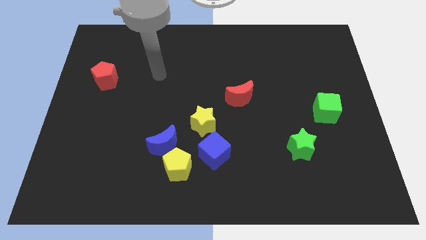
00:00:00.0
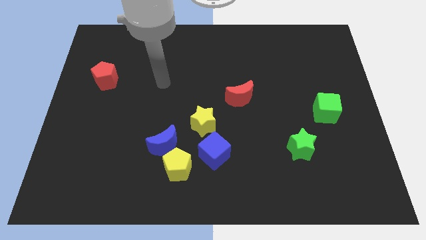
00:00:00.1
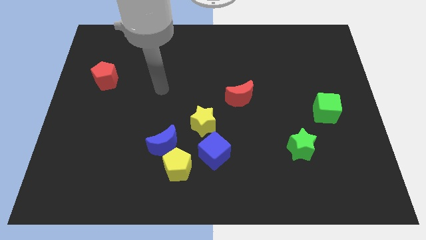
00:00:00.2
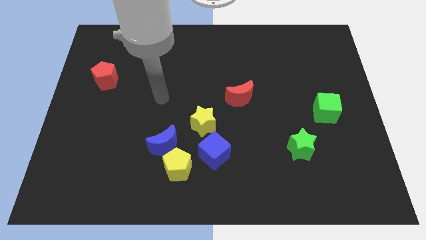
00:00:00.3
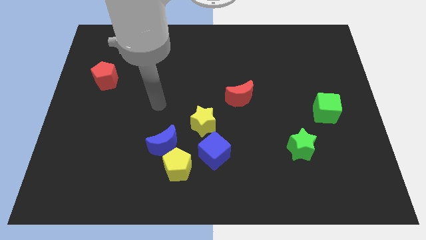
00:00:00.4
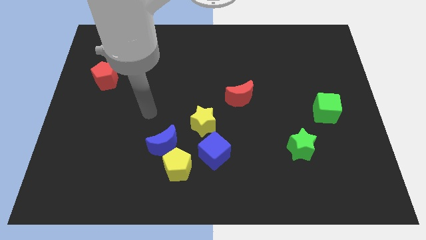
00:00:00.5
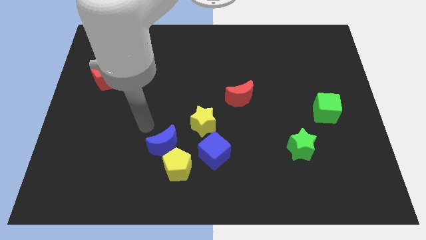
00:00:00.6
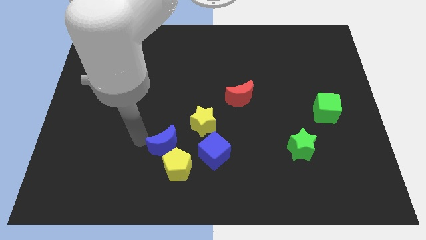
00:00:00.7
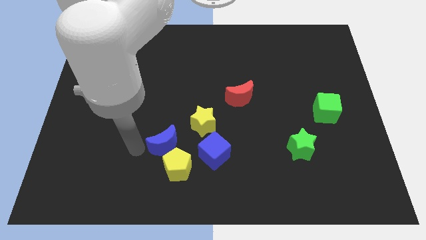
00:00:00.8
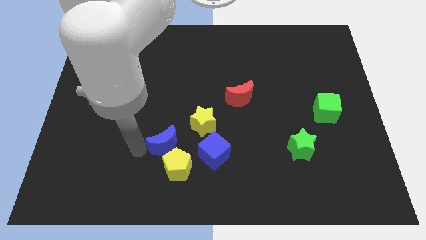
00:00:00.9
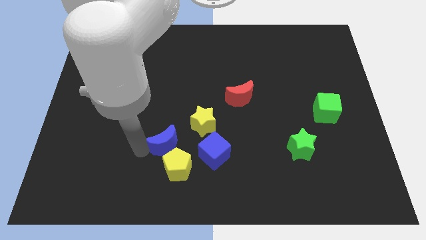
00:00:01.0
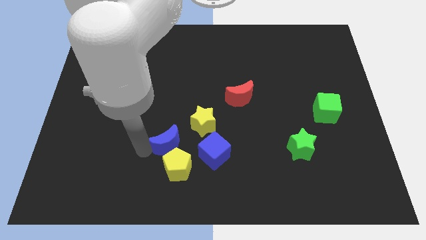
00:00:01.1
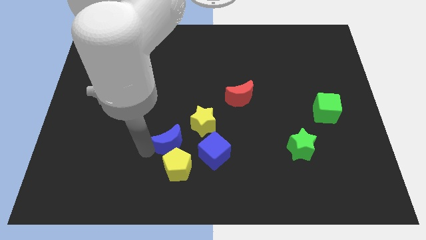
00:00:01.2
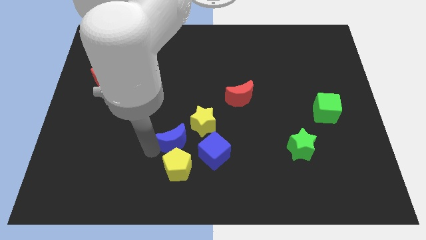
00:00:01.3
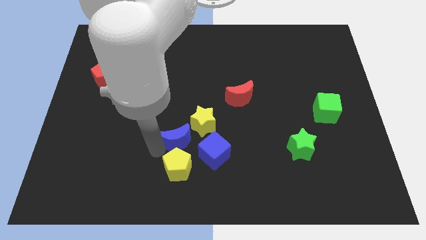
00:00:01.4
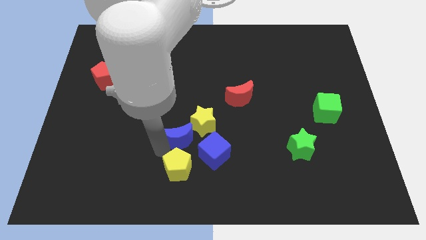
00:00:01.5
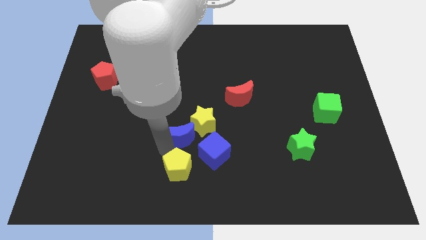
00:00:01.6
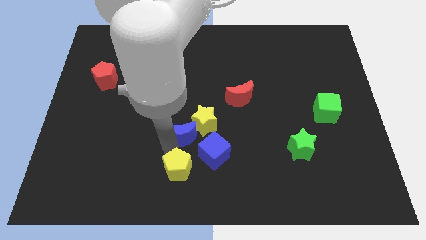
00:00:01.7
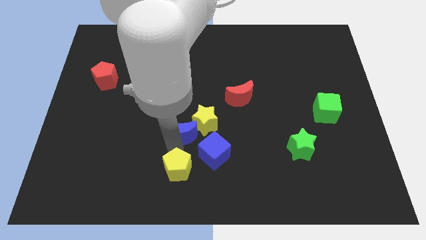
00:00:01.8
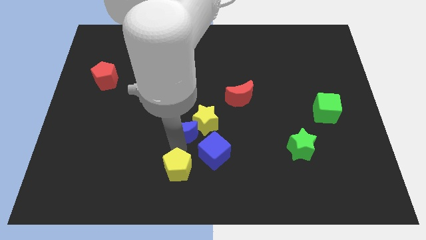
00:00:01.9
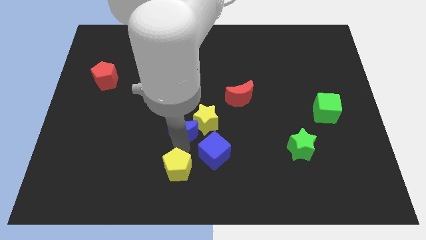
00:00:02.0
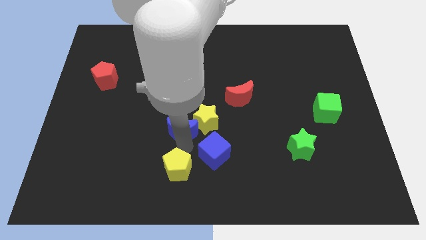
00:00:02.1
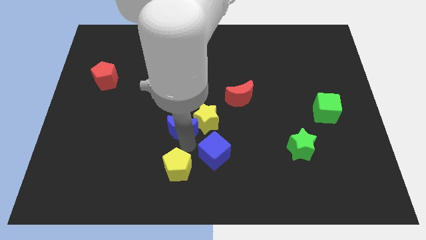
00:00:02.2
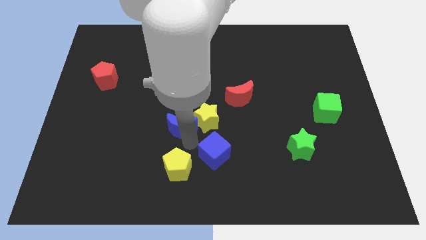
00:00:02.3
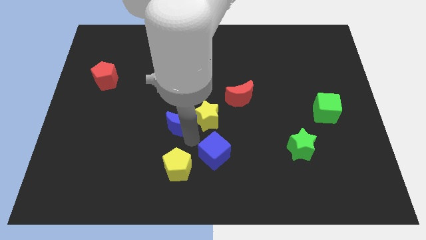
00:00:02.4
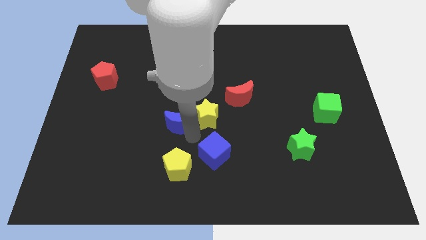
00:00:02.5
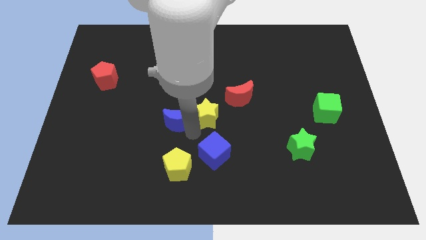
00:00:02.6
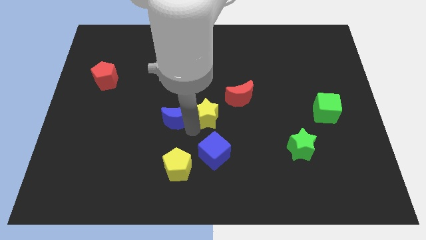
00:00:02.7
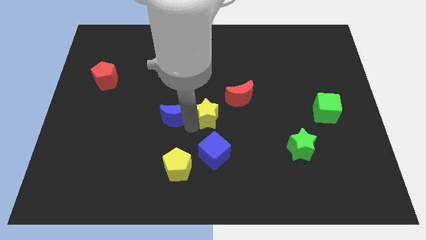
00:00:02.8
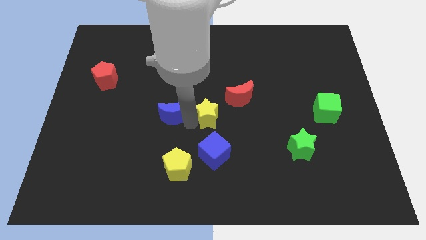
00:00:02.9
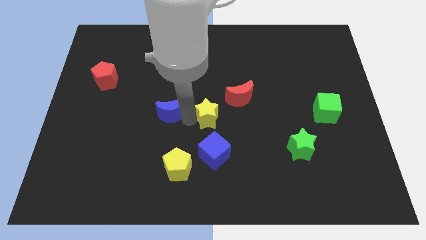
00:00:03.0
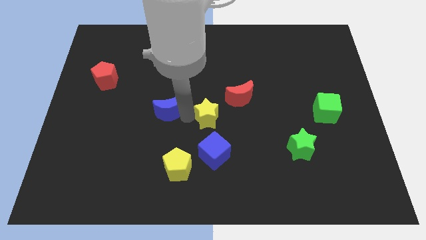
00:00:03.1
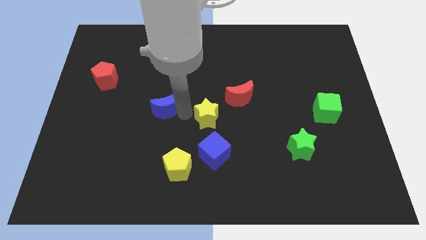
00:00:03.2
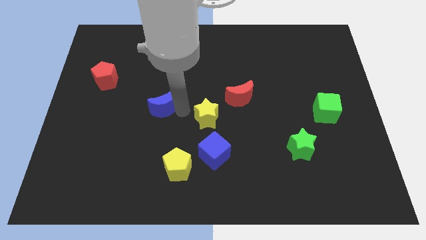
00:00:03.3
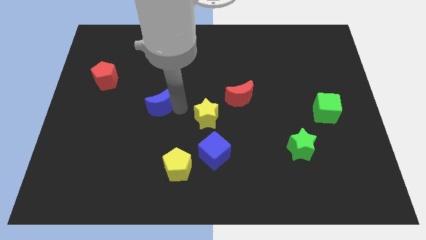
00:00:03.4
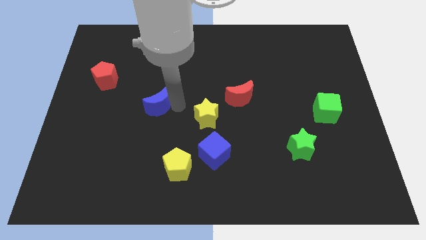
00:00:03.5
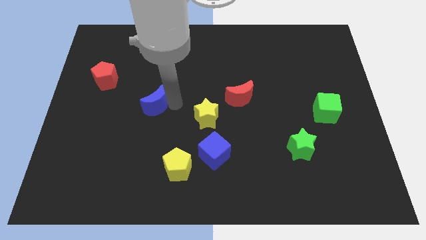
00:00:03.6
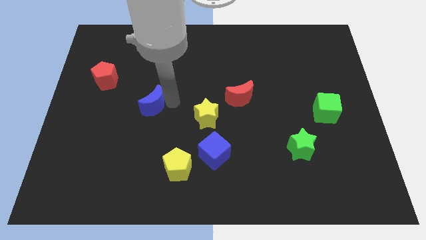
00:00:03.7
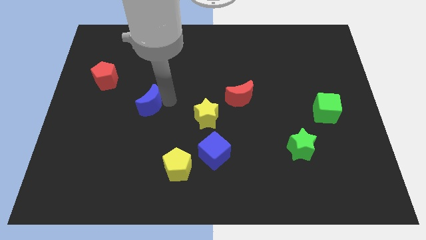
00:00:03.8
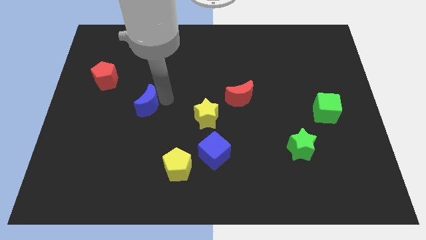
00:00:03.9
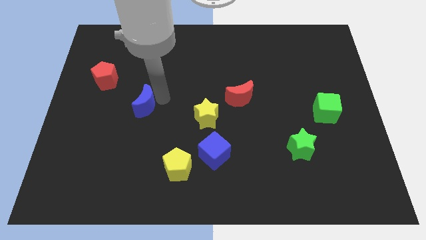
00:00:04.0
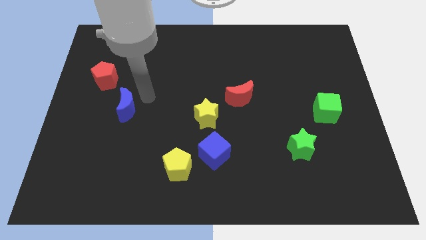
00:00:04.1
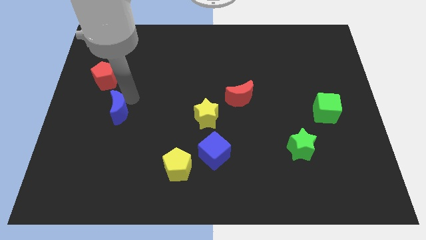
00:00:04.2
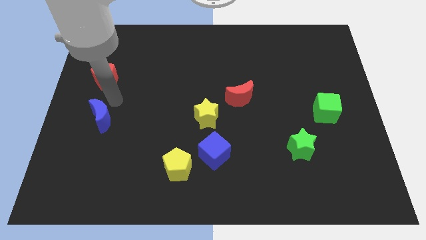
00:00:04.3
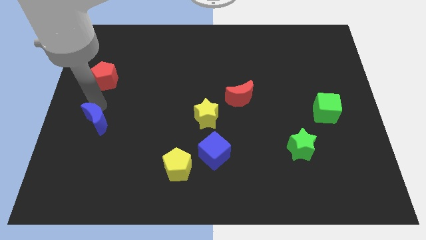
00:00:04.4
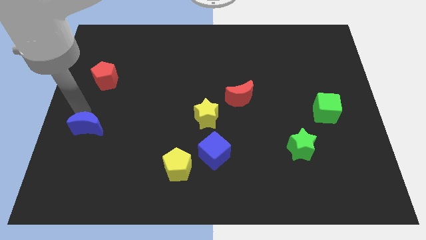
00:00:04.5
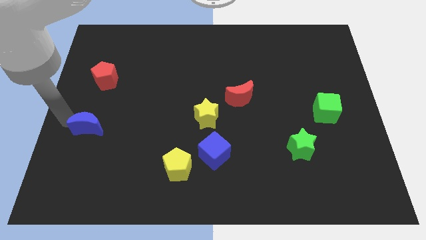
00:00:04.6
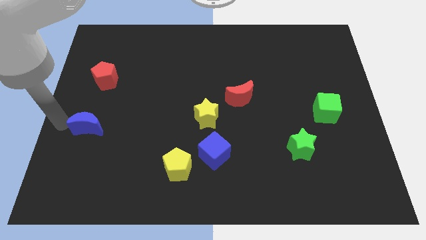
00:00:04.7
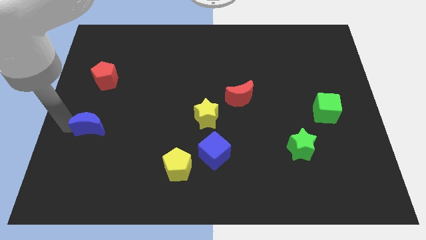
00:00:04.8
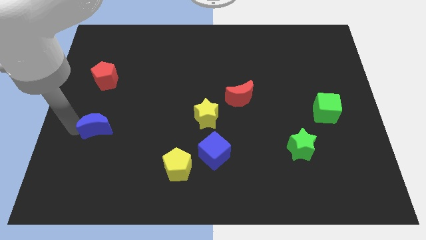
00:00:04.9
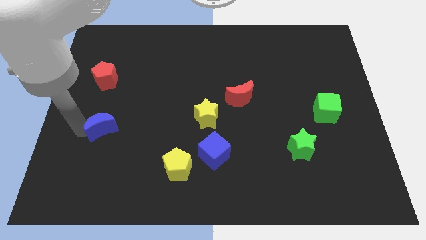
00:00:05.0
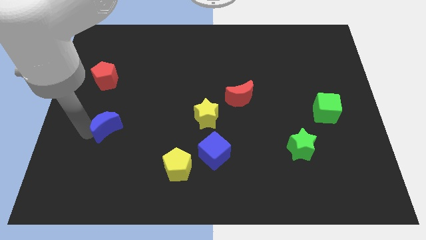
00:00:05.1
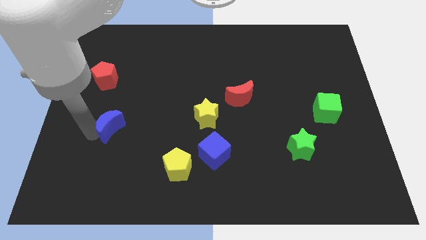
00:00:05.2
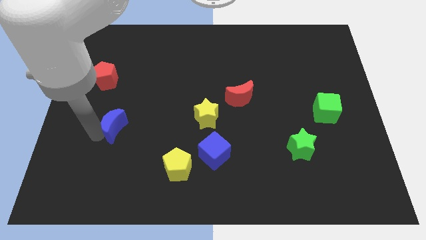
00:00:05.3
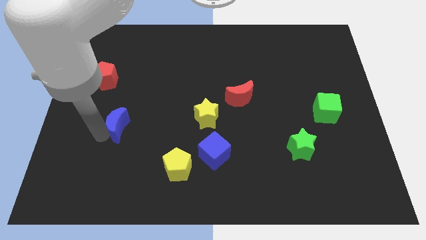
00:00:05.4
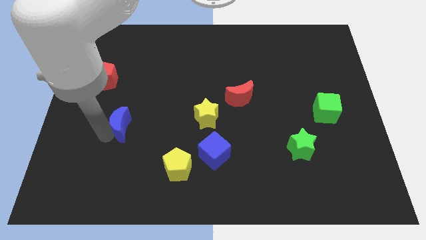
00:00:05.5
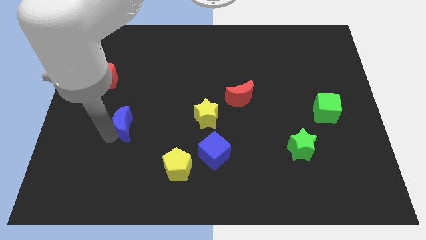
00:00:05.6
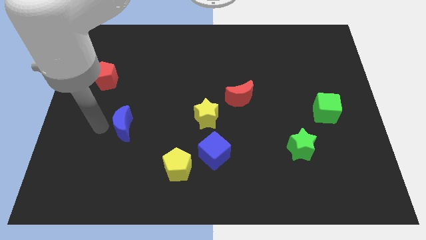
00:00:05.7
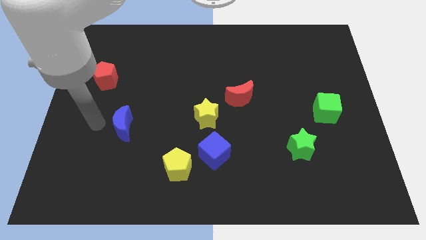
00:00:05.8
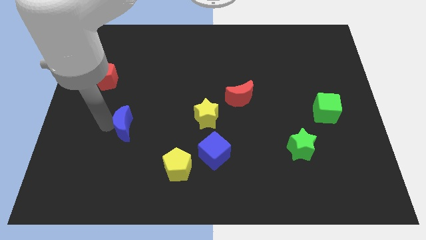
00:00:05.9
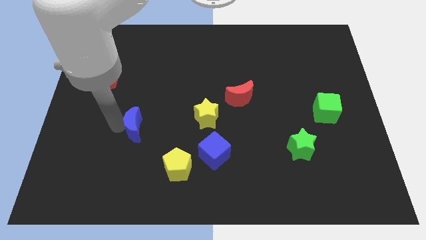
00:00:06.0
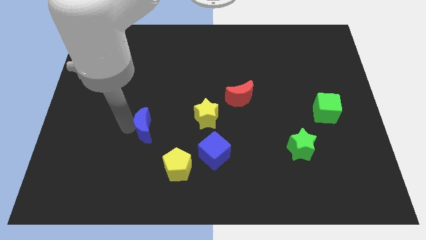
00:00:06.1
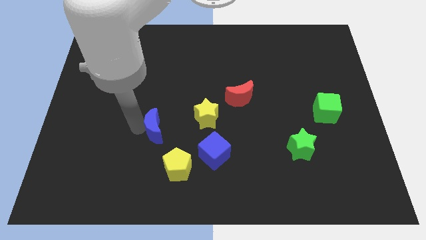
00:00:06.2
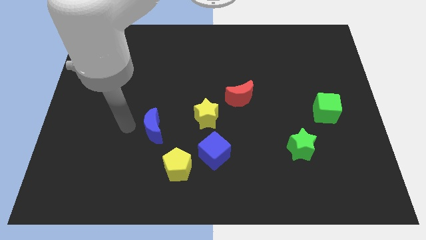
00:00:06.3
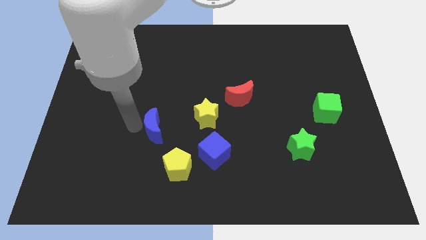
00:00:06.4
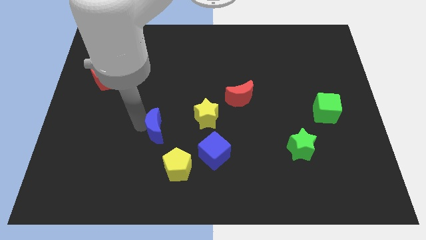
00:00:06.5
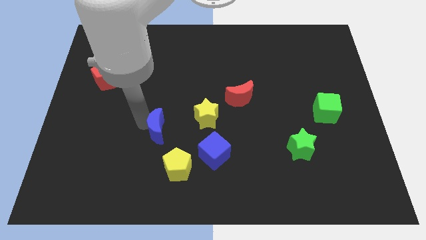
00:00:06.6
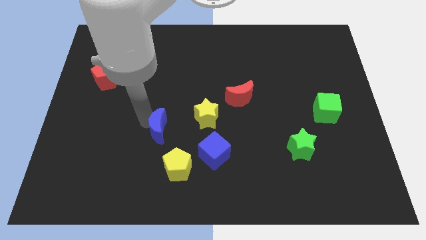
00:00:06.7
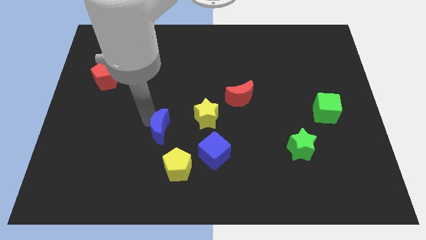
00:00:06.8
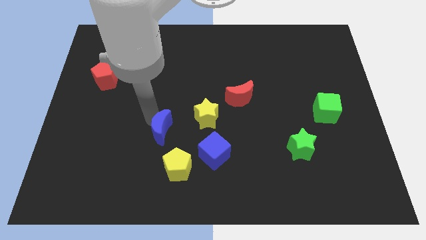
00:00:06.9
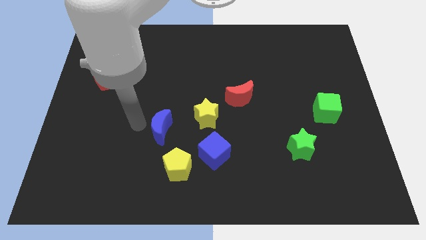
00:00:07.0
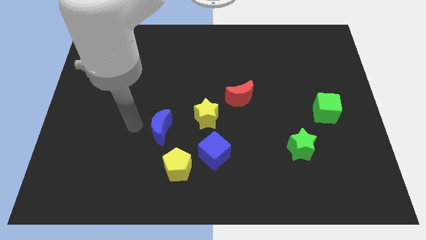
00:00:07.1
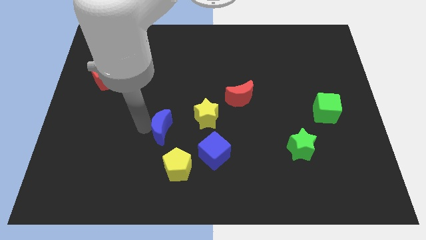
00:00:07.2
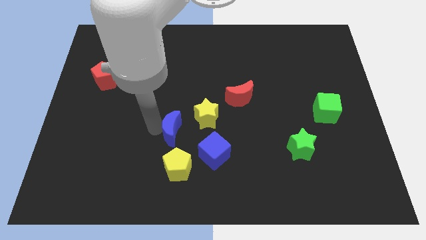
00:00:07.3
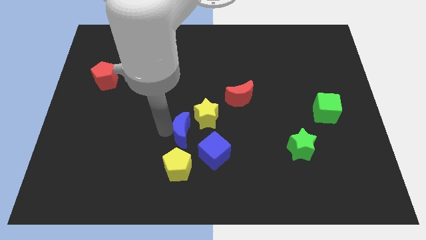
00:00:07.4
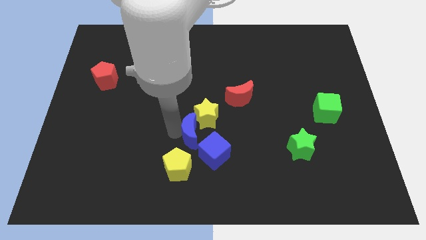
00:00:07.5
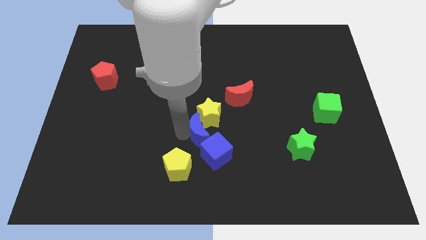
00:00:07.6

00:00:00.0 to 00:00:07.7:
slightly move the blue moon to the right

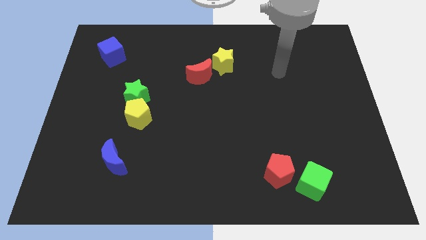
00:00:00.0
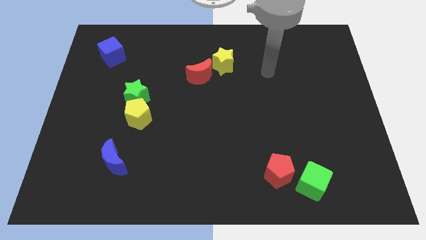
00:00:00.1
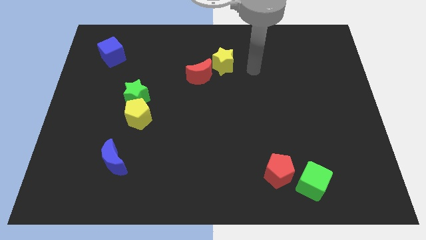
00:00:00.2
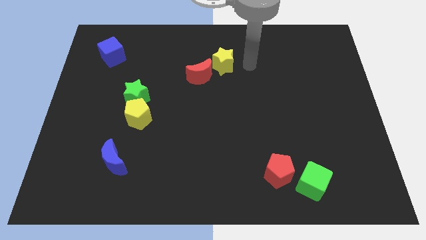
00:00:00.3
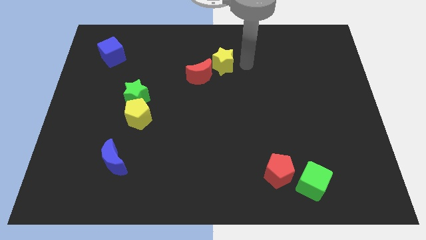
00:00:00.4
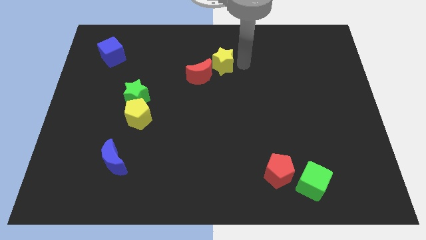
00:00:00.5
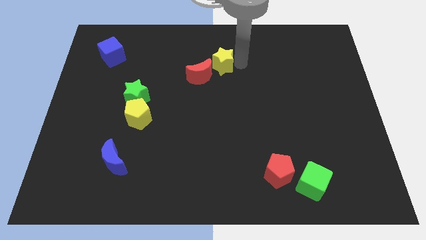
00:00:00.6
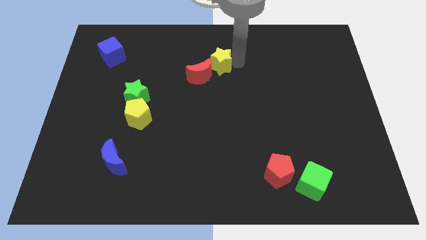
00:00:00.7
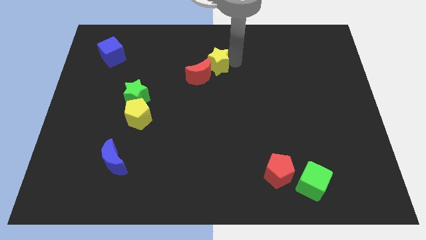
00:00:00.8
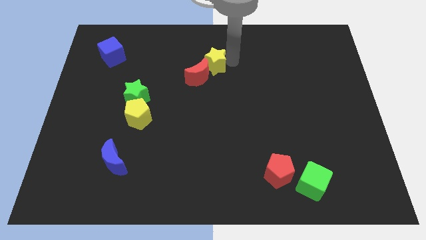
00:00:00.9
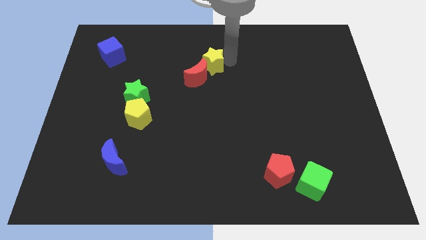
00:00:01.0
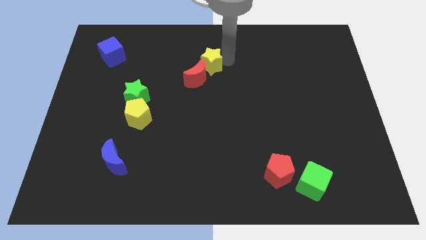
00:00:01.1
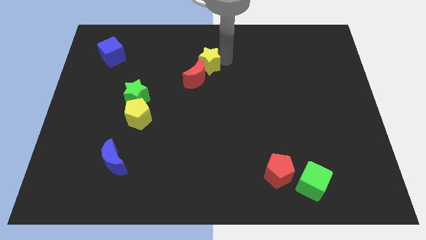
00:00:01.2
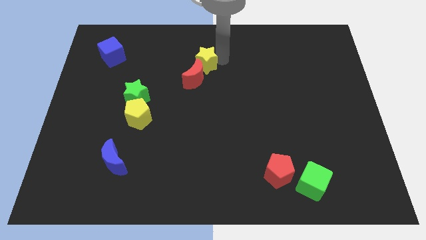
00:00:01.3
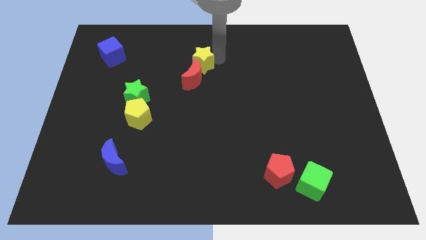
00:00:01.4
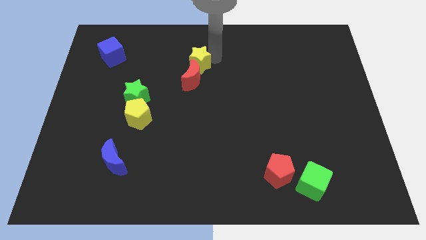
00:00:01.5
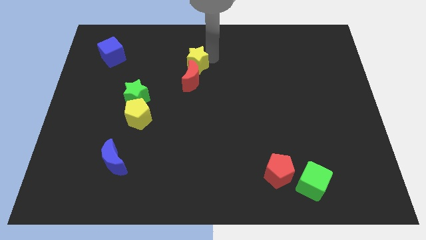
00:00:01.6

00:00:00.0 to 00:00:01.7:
slide the yellow star left somewhat
